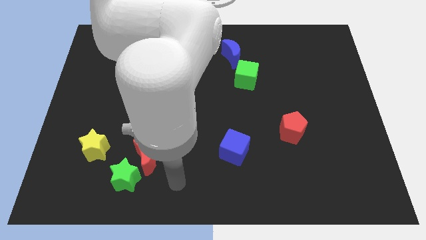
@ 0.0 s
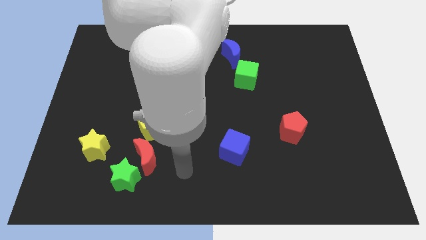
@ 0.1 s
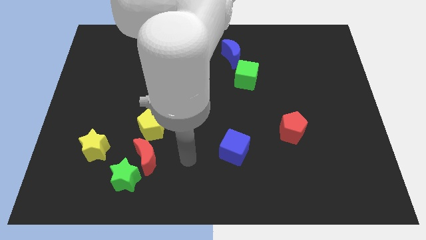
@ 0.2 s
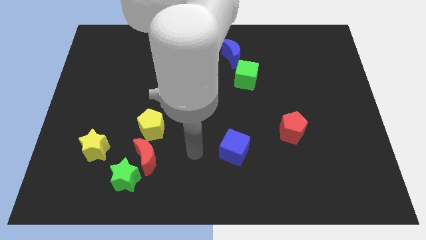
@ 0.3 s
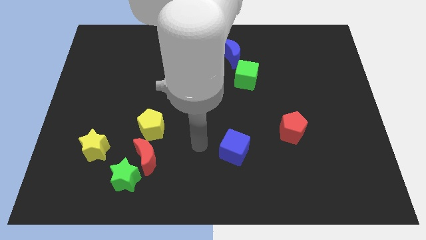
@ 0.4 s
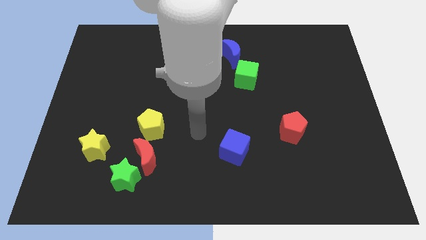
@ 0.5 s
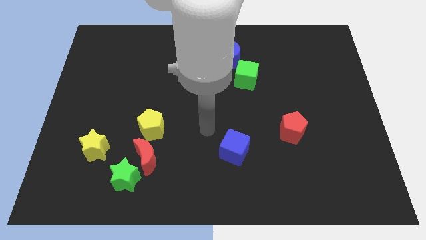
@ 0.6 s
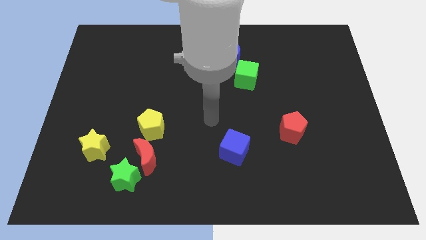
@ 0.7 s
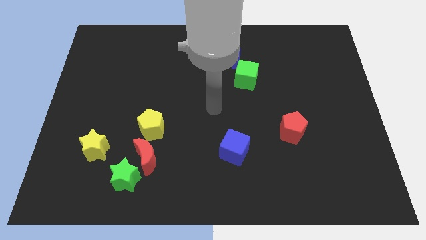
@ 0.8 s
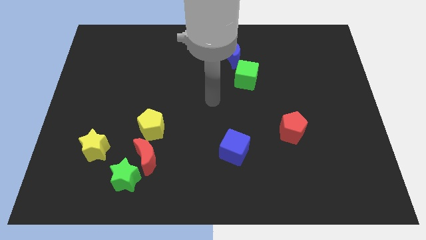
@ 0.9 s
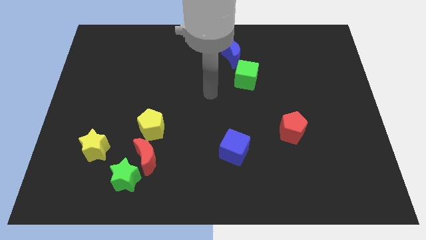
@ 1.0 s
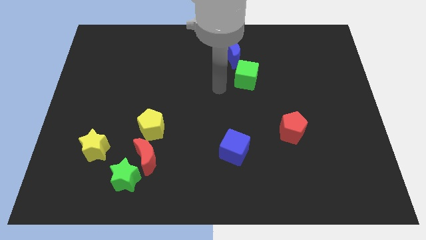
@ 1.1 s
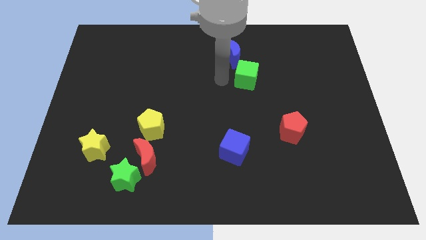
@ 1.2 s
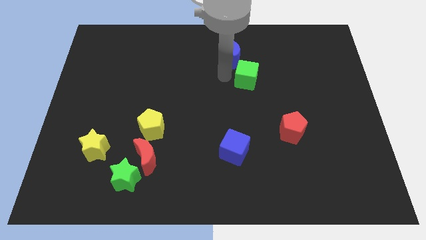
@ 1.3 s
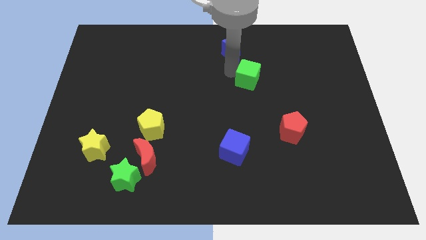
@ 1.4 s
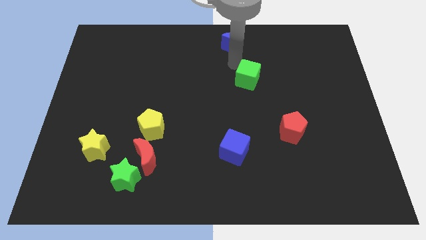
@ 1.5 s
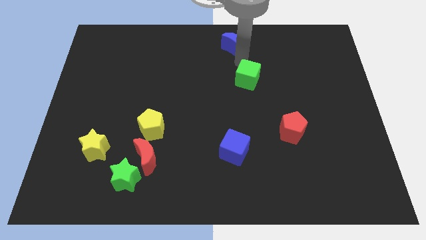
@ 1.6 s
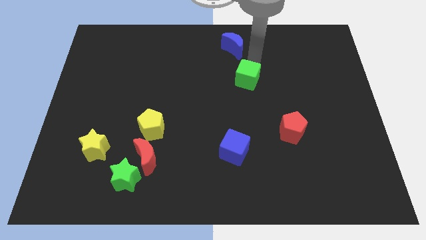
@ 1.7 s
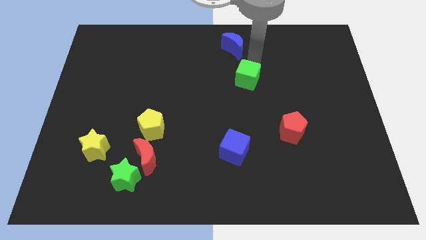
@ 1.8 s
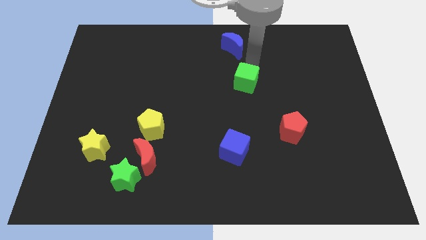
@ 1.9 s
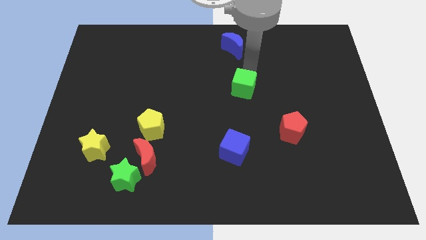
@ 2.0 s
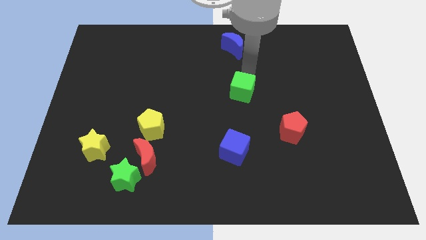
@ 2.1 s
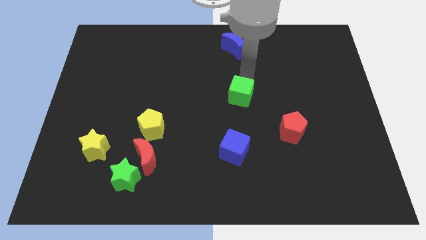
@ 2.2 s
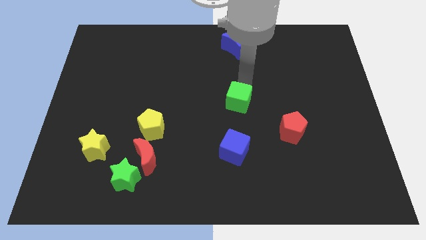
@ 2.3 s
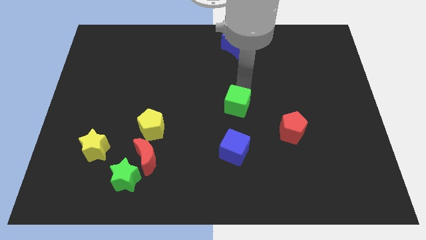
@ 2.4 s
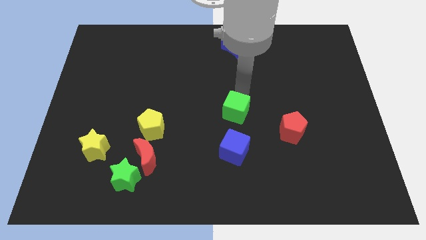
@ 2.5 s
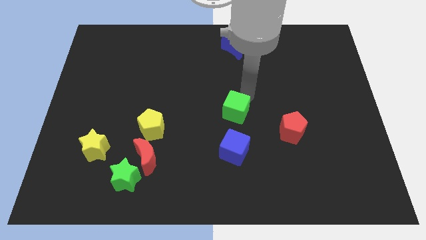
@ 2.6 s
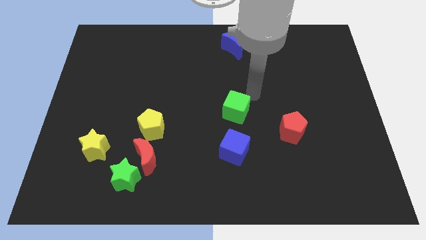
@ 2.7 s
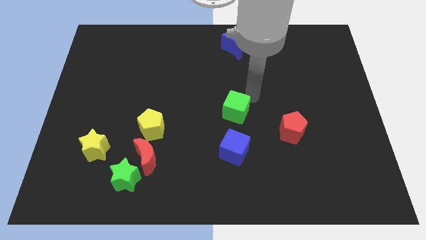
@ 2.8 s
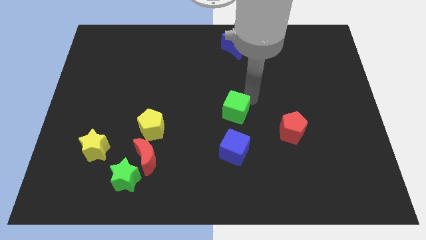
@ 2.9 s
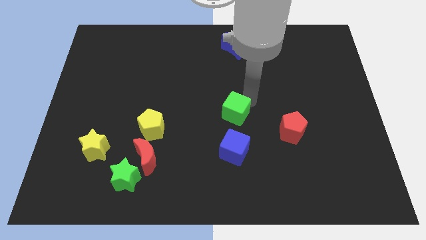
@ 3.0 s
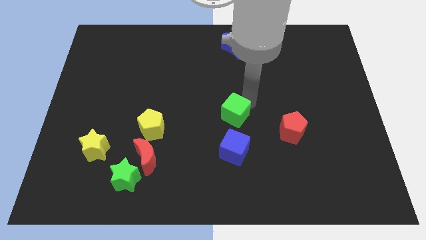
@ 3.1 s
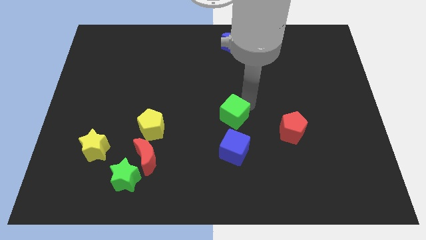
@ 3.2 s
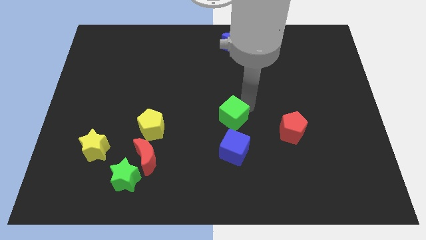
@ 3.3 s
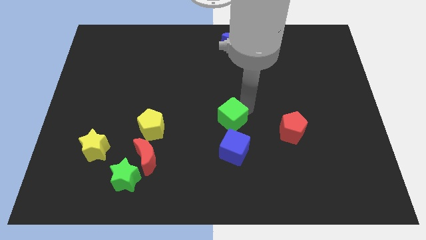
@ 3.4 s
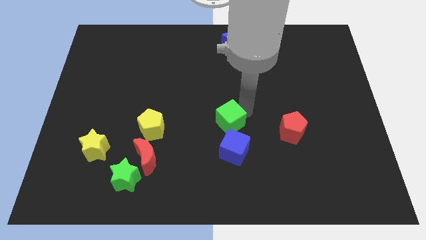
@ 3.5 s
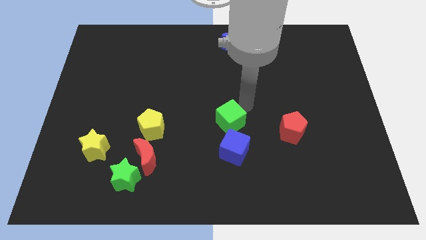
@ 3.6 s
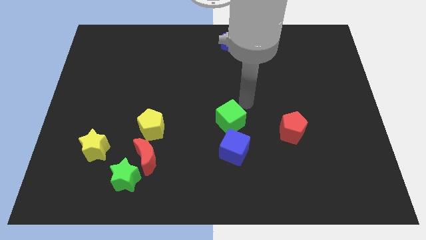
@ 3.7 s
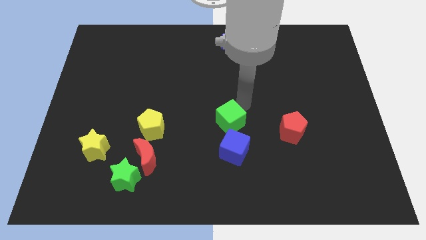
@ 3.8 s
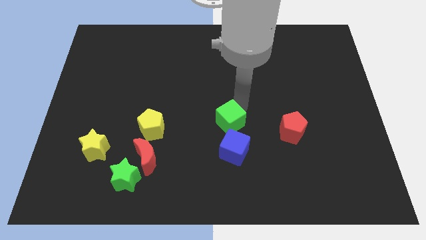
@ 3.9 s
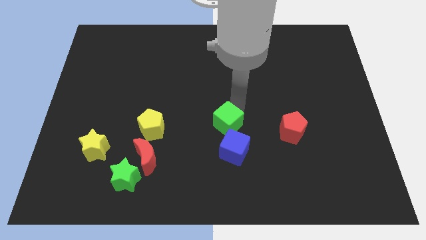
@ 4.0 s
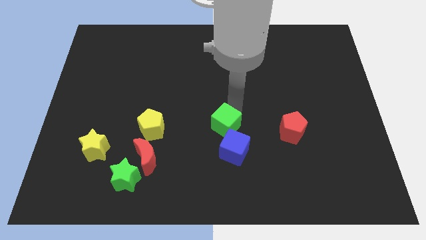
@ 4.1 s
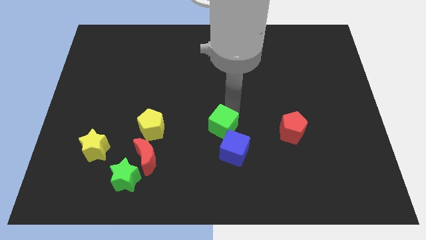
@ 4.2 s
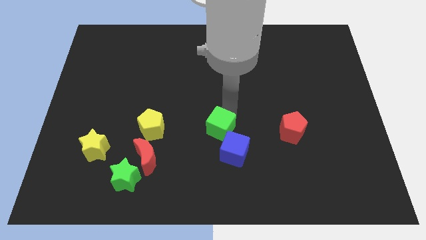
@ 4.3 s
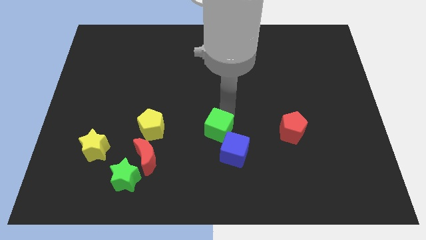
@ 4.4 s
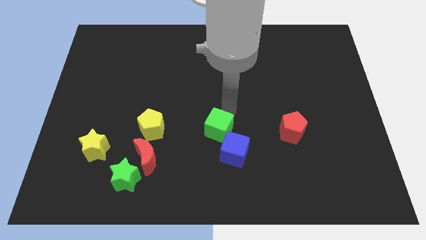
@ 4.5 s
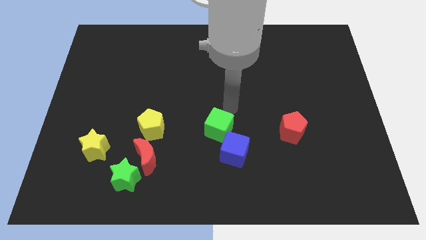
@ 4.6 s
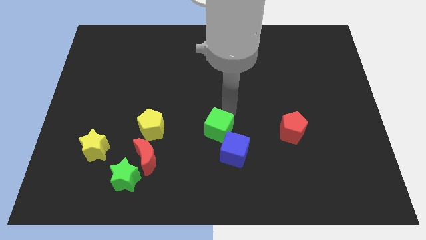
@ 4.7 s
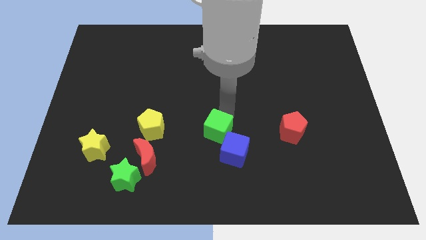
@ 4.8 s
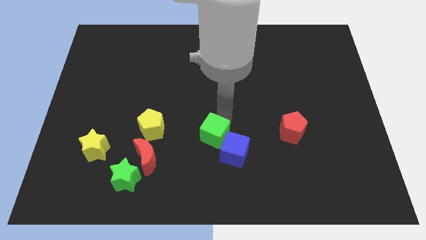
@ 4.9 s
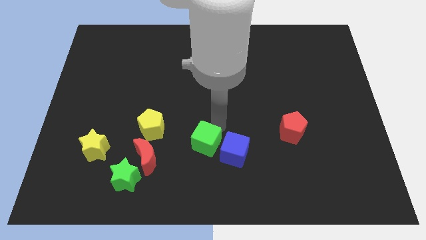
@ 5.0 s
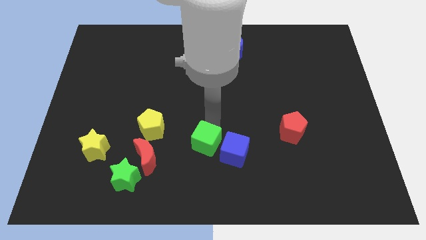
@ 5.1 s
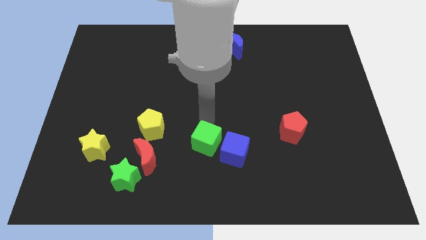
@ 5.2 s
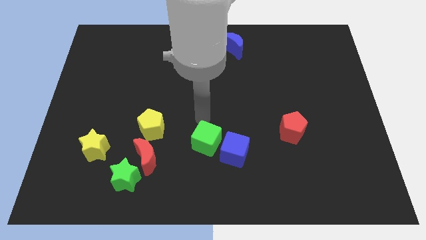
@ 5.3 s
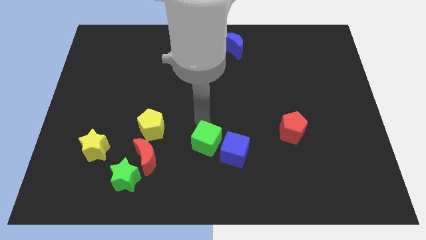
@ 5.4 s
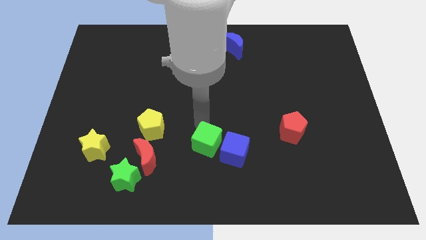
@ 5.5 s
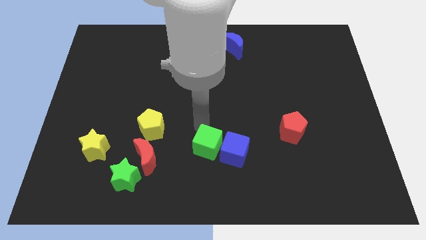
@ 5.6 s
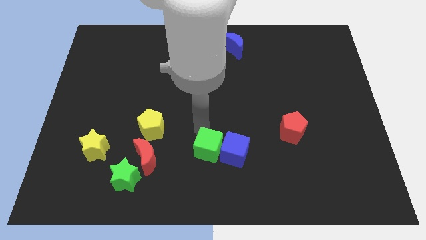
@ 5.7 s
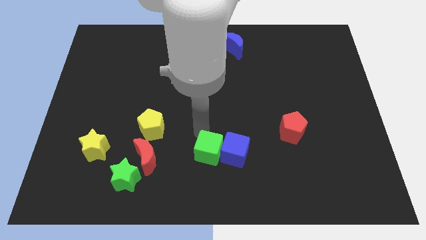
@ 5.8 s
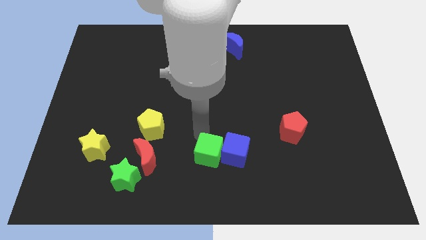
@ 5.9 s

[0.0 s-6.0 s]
put the green cube to the bottom

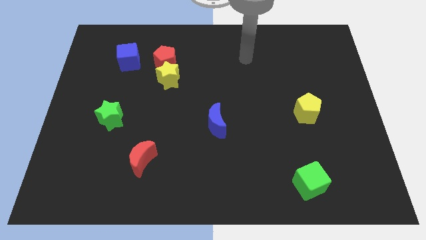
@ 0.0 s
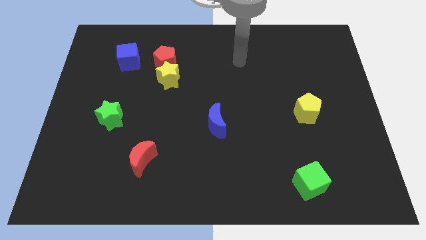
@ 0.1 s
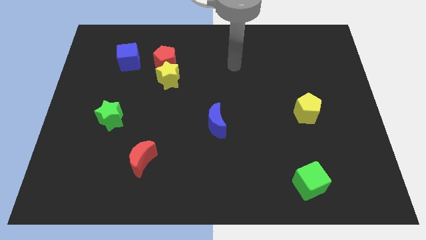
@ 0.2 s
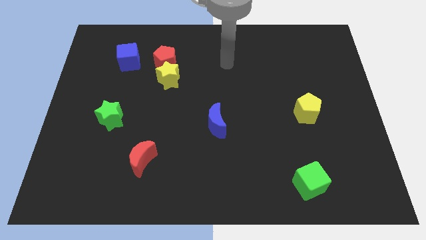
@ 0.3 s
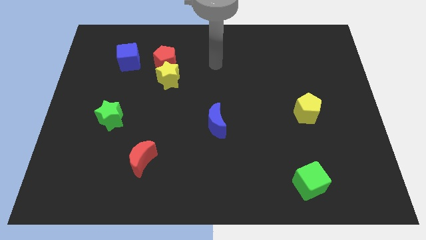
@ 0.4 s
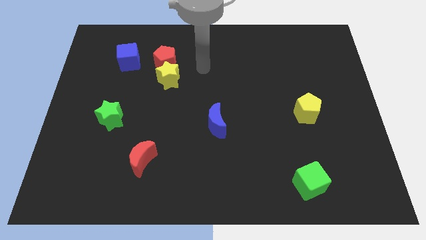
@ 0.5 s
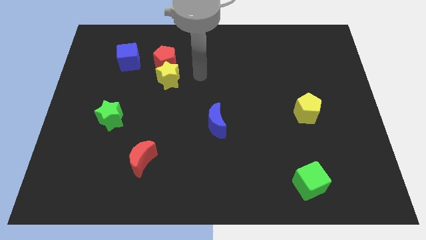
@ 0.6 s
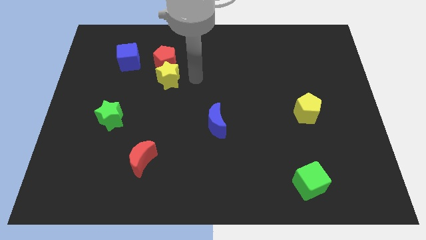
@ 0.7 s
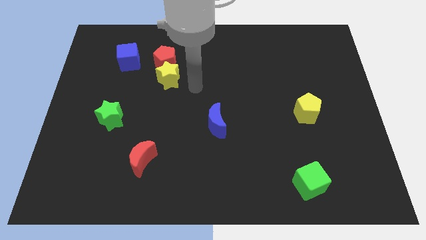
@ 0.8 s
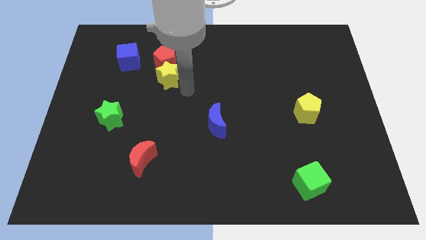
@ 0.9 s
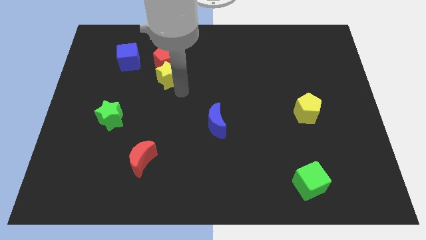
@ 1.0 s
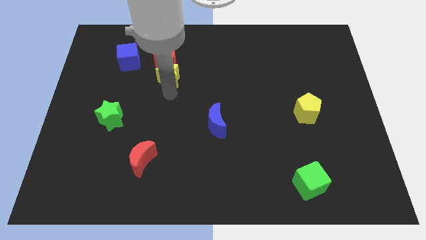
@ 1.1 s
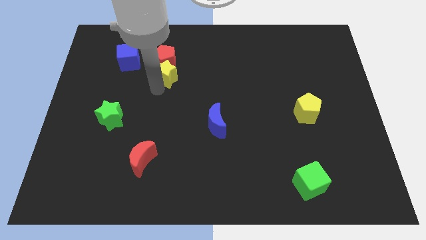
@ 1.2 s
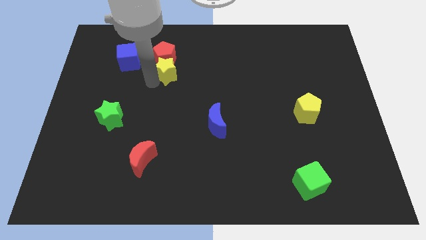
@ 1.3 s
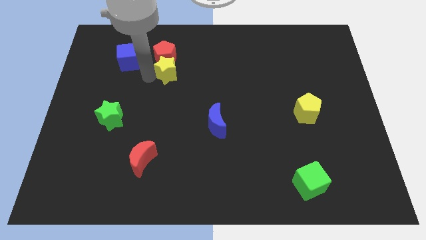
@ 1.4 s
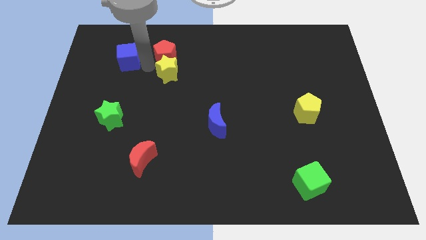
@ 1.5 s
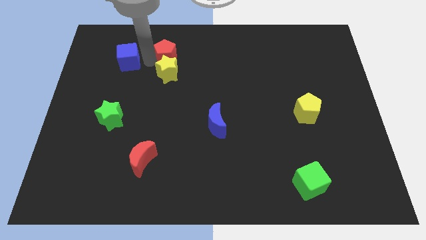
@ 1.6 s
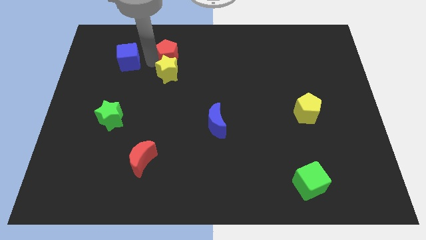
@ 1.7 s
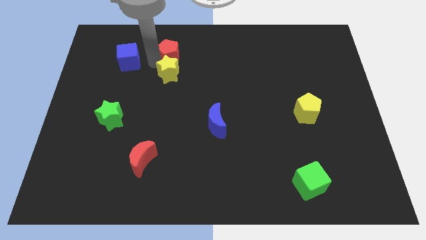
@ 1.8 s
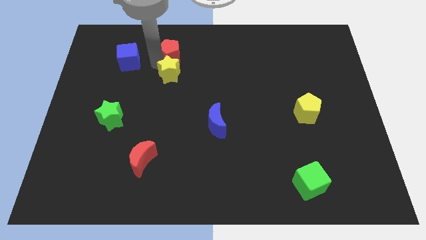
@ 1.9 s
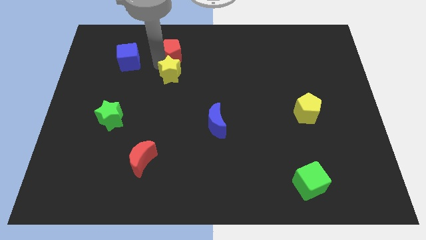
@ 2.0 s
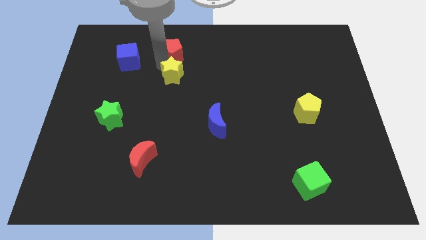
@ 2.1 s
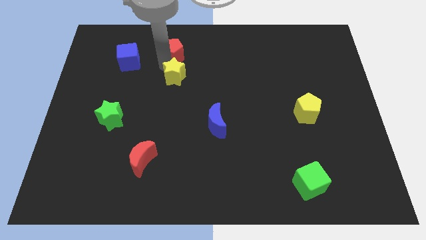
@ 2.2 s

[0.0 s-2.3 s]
slide the yellow star to the middle of the board
